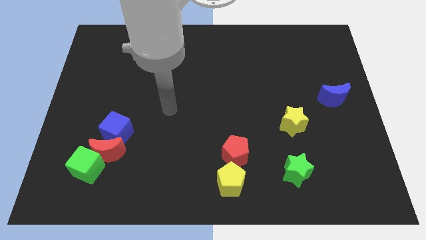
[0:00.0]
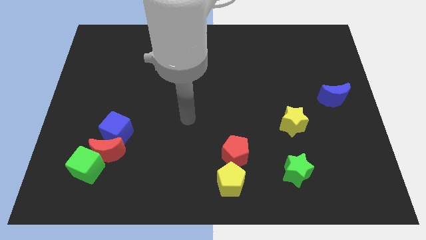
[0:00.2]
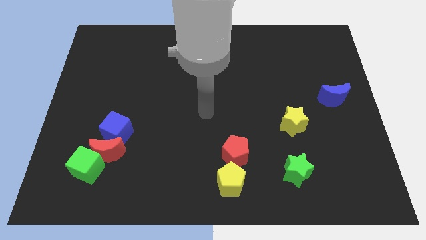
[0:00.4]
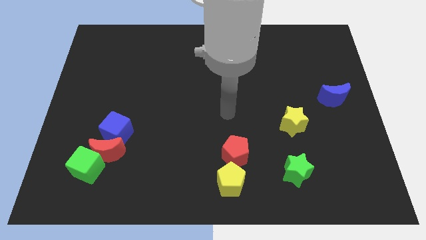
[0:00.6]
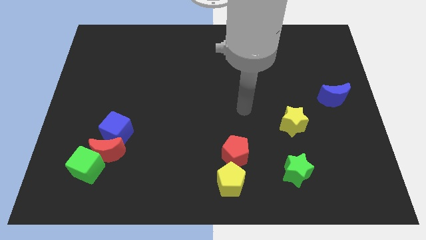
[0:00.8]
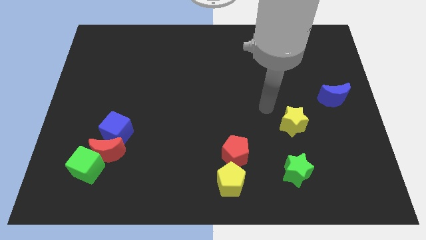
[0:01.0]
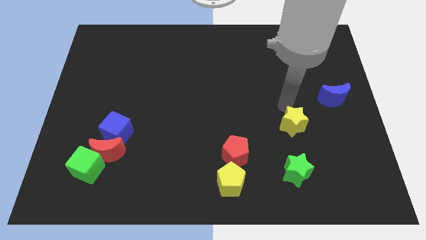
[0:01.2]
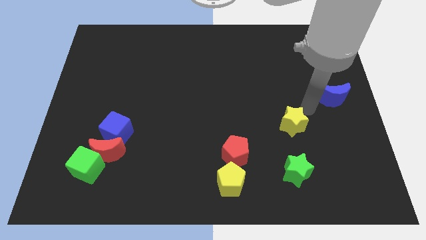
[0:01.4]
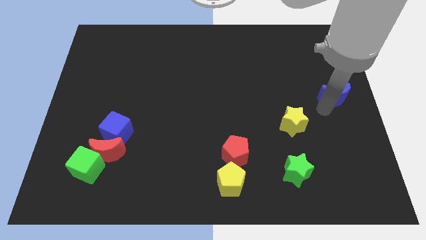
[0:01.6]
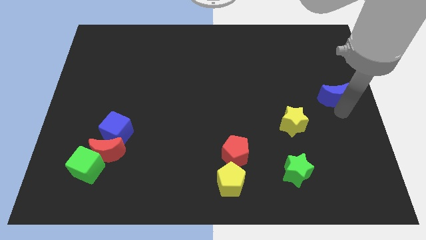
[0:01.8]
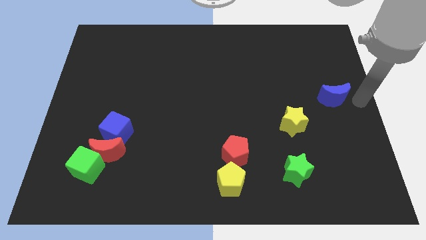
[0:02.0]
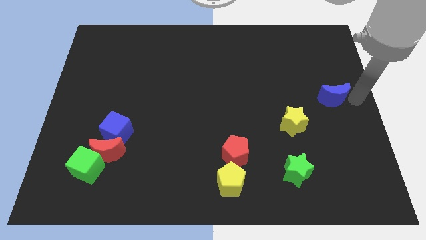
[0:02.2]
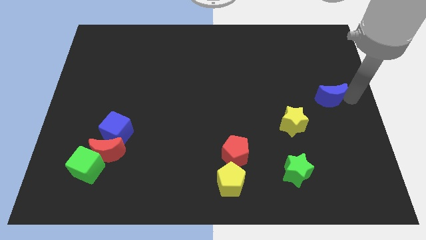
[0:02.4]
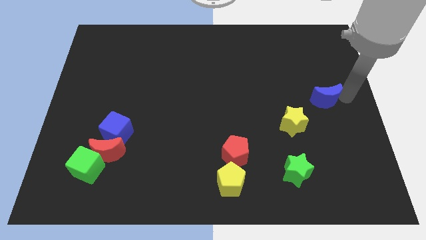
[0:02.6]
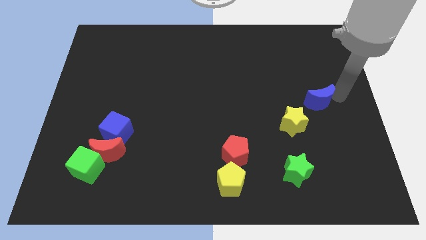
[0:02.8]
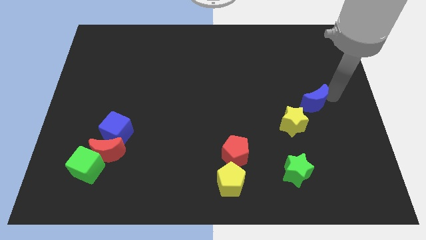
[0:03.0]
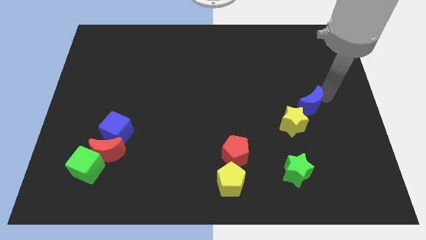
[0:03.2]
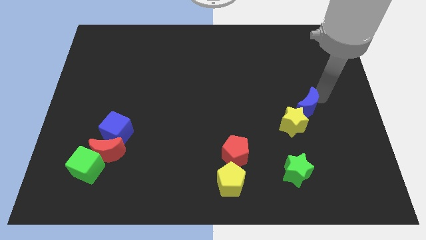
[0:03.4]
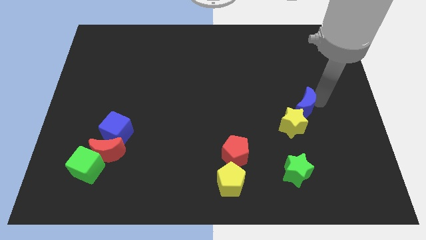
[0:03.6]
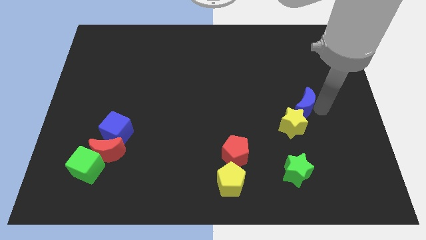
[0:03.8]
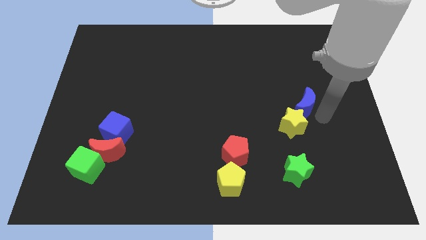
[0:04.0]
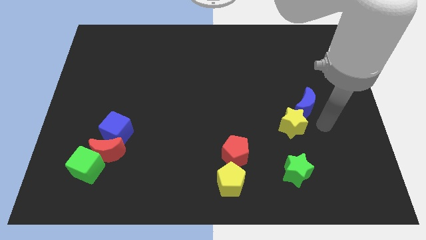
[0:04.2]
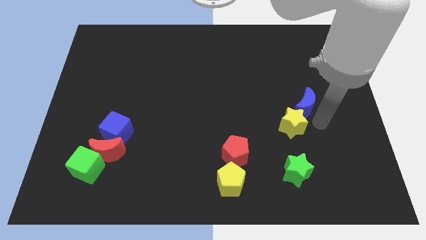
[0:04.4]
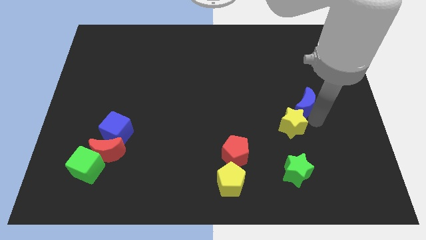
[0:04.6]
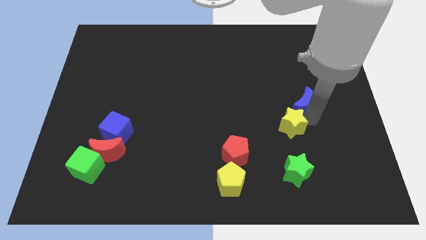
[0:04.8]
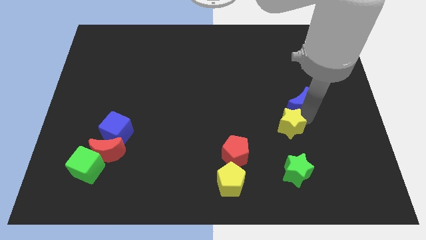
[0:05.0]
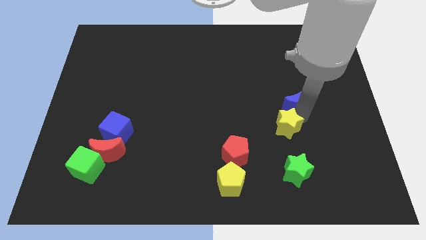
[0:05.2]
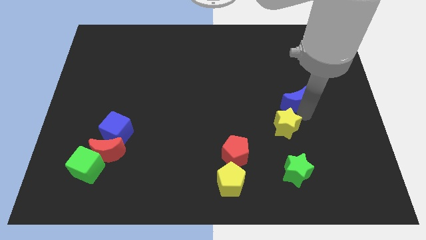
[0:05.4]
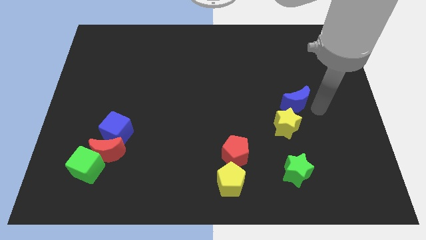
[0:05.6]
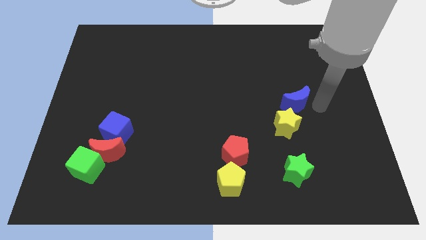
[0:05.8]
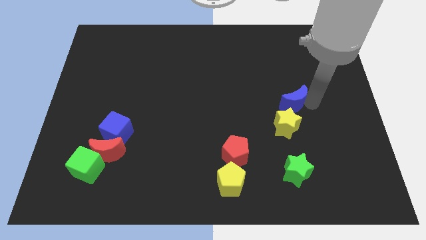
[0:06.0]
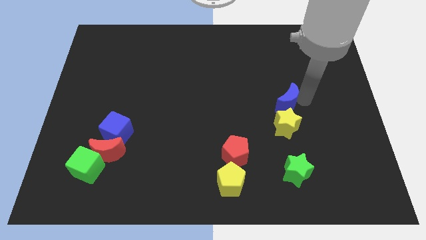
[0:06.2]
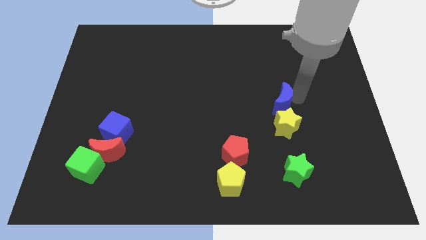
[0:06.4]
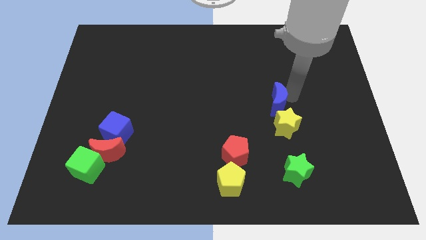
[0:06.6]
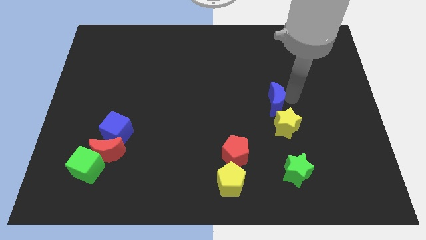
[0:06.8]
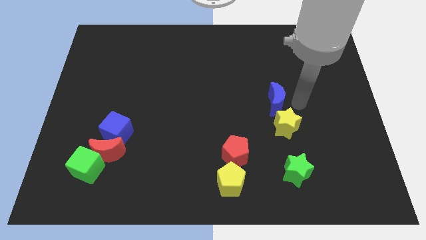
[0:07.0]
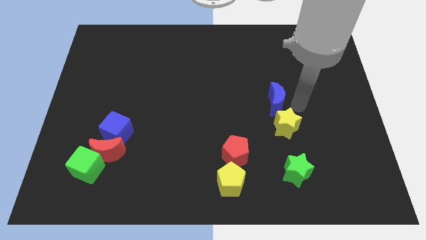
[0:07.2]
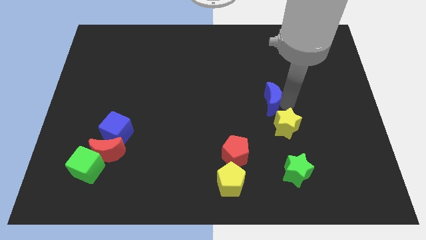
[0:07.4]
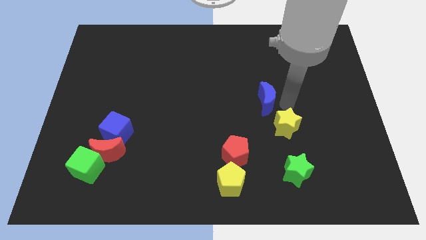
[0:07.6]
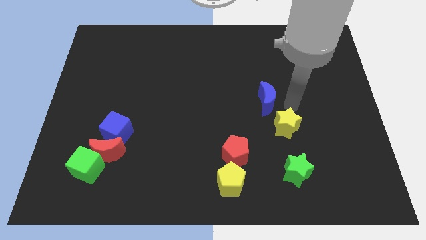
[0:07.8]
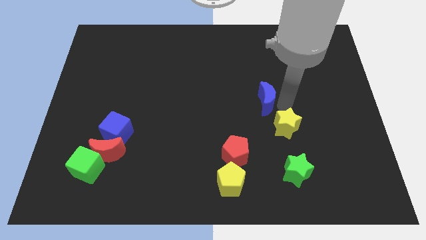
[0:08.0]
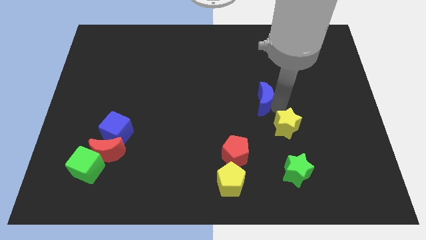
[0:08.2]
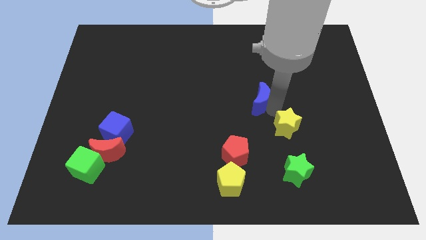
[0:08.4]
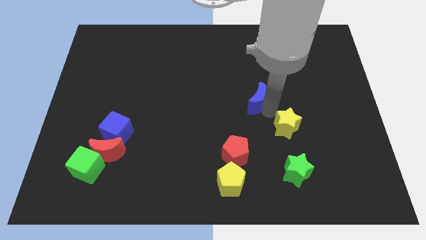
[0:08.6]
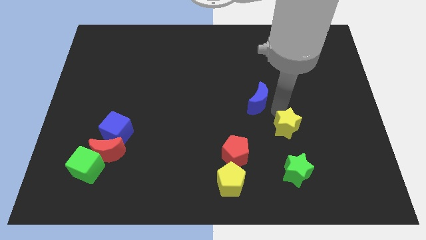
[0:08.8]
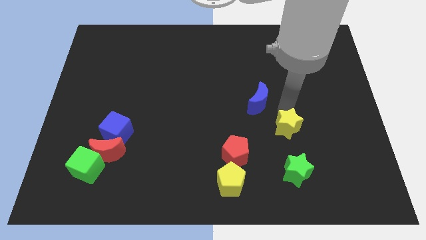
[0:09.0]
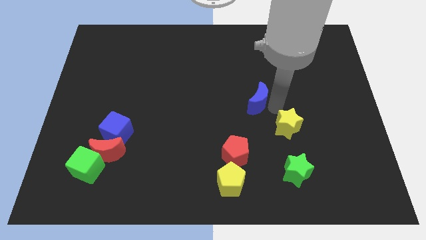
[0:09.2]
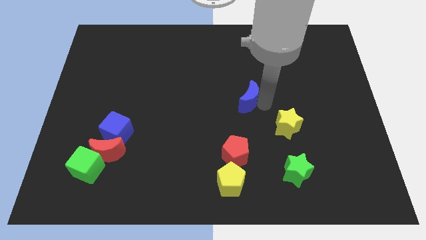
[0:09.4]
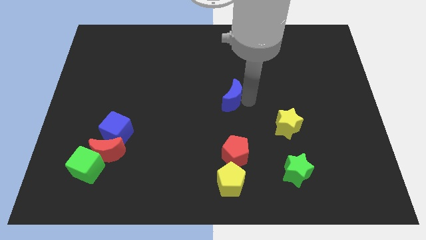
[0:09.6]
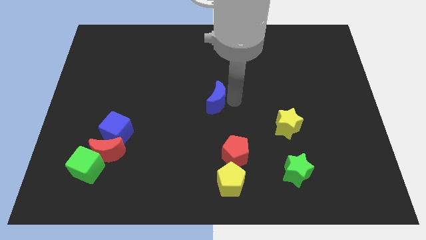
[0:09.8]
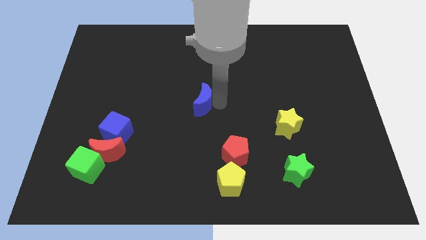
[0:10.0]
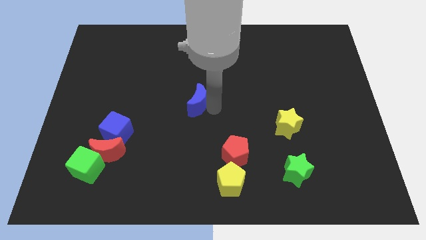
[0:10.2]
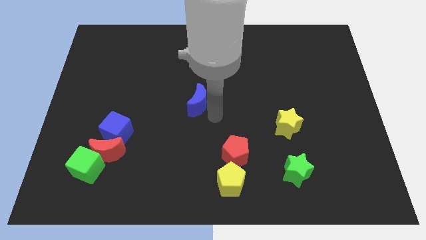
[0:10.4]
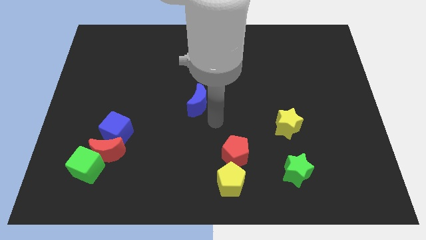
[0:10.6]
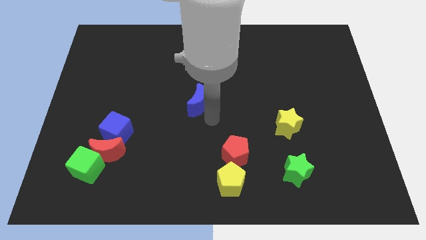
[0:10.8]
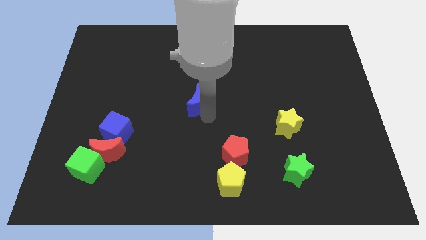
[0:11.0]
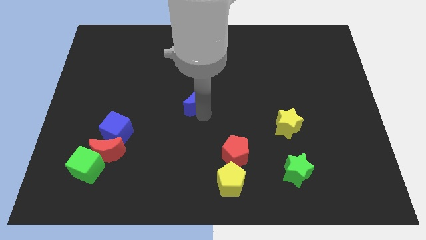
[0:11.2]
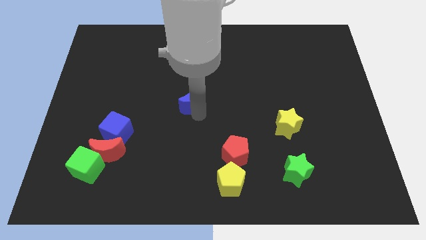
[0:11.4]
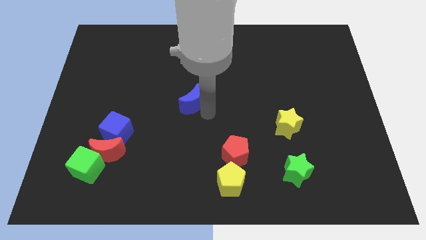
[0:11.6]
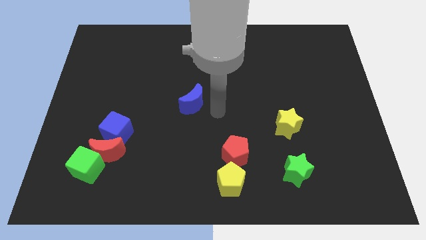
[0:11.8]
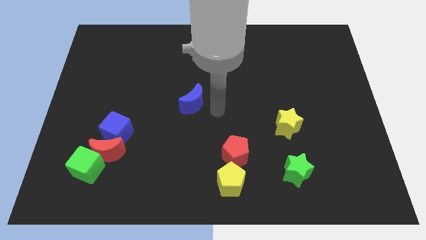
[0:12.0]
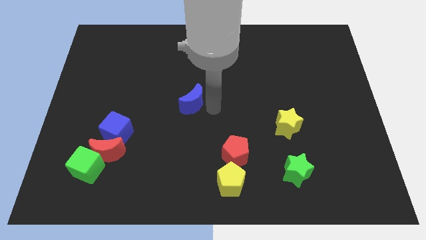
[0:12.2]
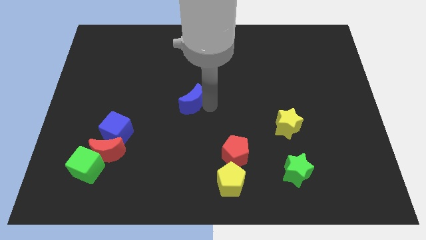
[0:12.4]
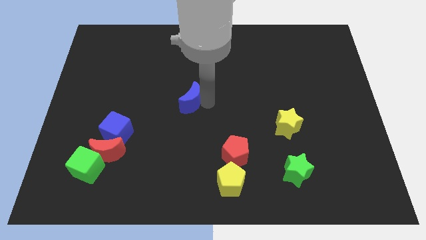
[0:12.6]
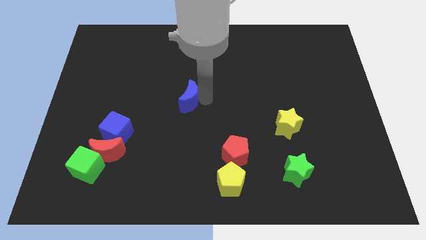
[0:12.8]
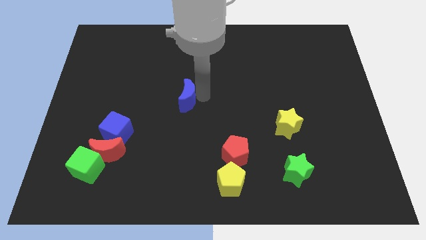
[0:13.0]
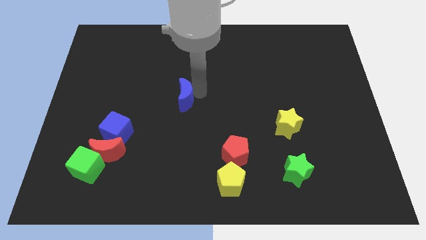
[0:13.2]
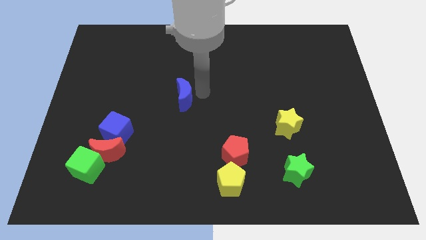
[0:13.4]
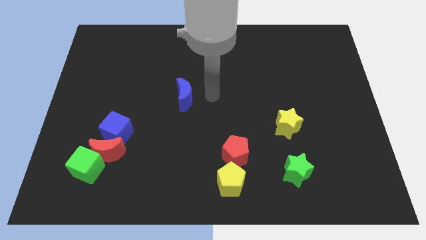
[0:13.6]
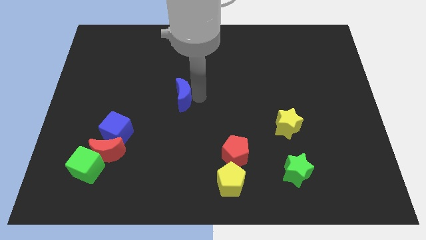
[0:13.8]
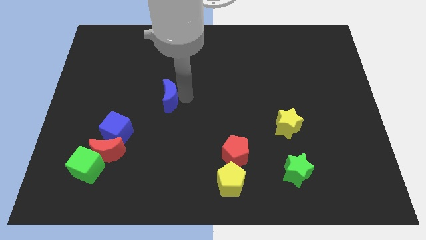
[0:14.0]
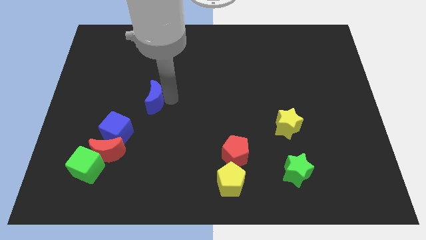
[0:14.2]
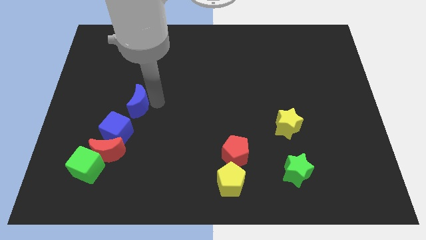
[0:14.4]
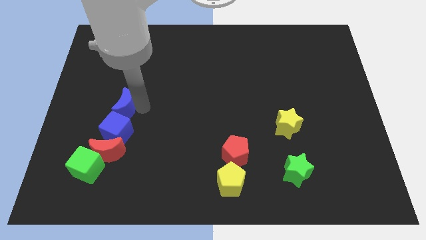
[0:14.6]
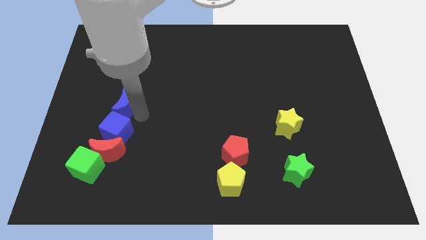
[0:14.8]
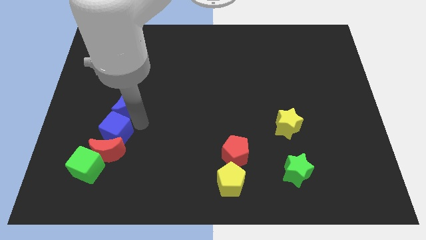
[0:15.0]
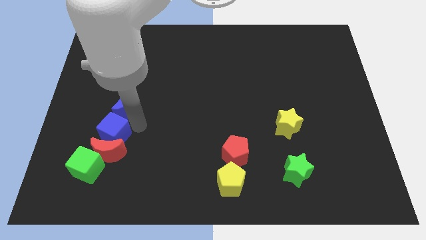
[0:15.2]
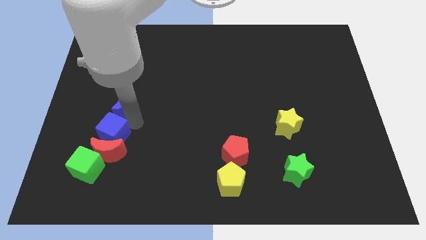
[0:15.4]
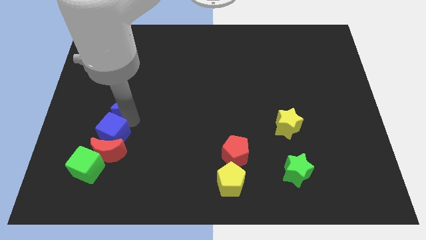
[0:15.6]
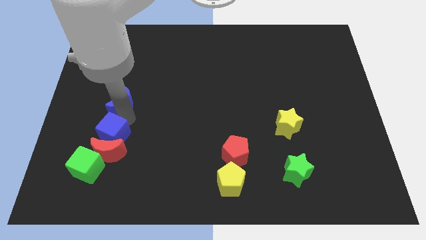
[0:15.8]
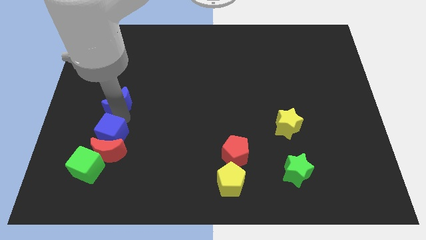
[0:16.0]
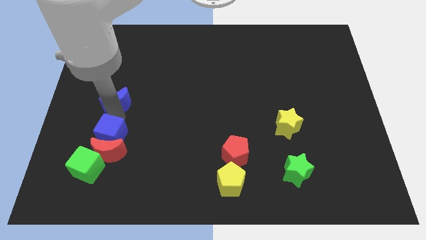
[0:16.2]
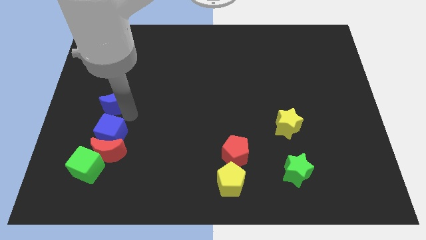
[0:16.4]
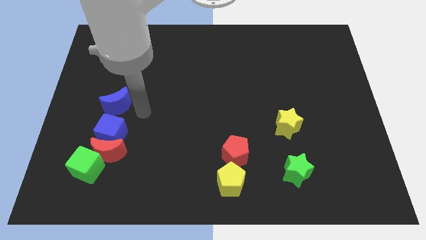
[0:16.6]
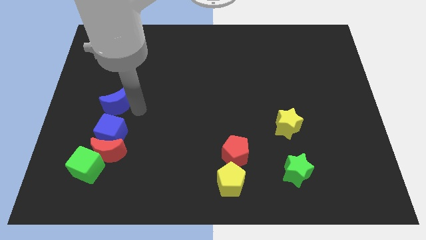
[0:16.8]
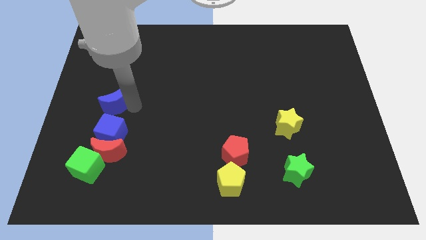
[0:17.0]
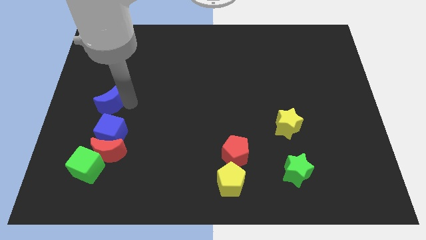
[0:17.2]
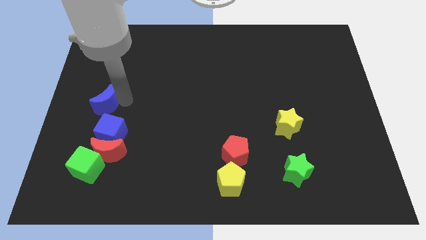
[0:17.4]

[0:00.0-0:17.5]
push the blue moon to the left side of the board
